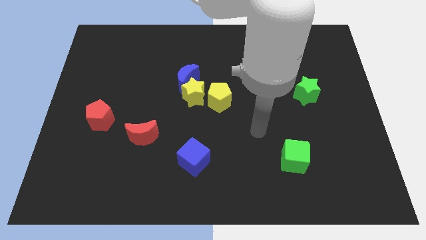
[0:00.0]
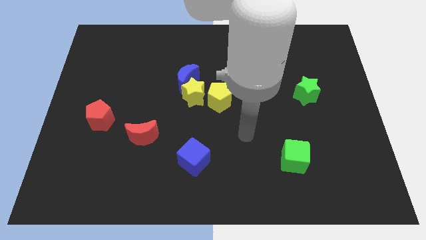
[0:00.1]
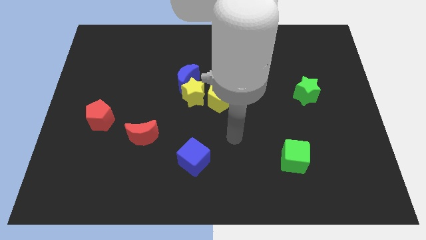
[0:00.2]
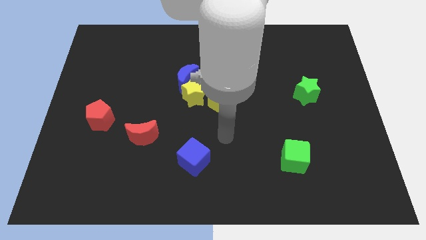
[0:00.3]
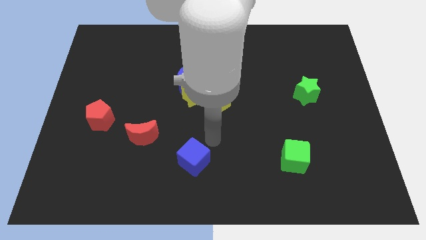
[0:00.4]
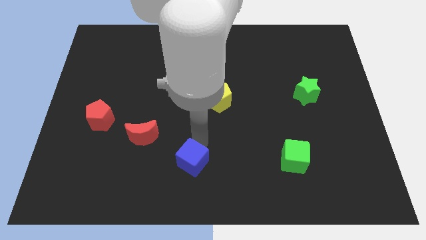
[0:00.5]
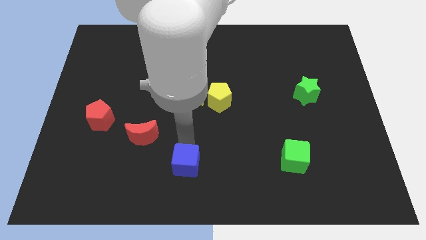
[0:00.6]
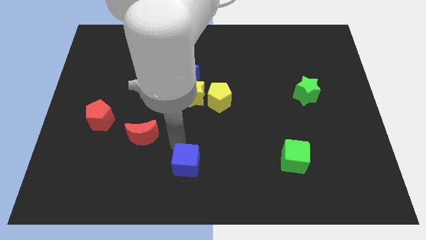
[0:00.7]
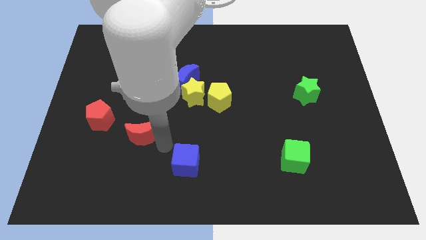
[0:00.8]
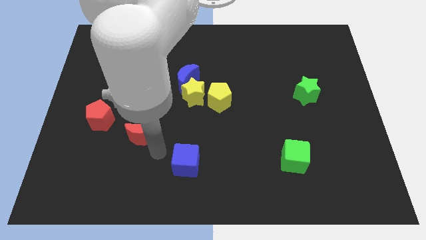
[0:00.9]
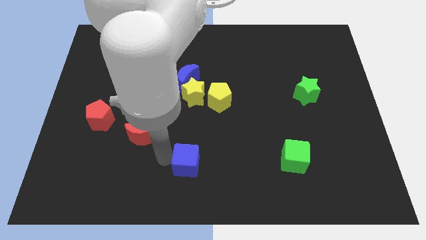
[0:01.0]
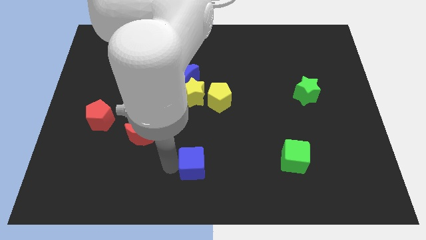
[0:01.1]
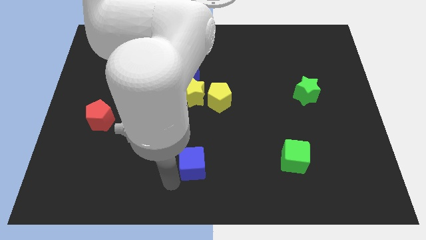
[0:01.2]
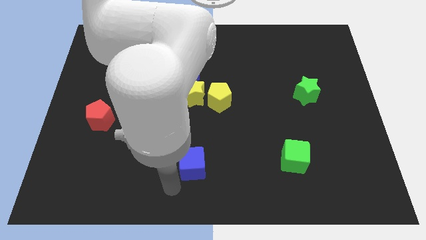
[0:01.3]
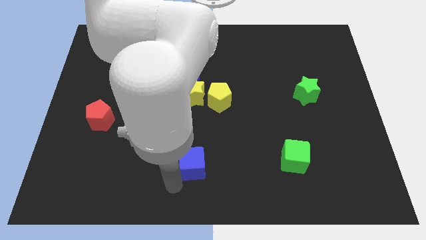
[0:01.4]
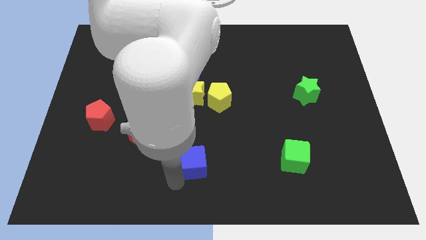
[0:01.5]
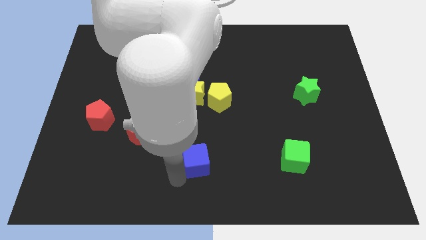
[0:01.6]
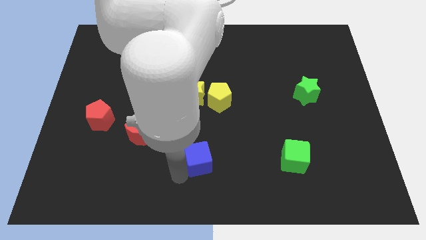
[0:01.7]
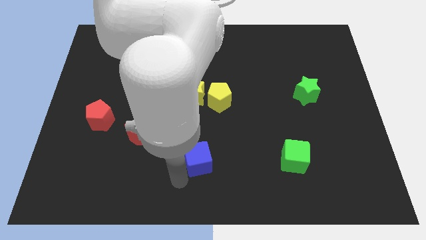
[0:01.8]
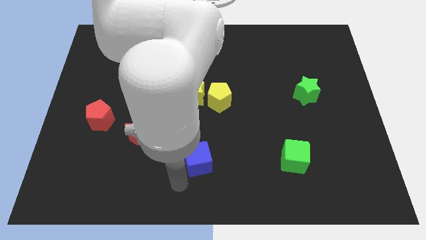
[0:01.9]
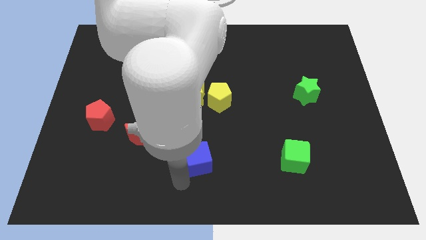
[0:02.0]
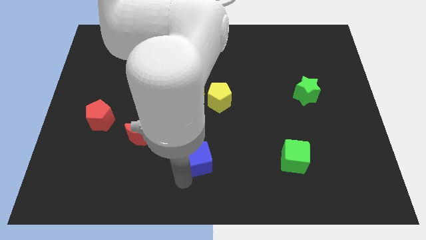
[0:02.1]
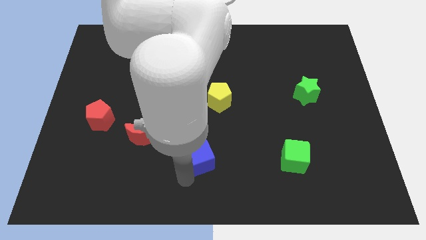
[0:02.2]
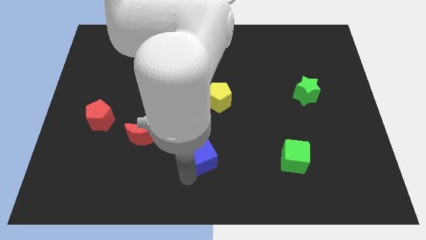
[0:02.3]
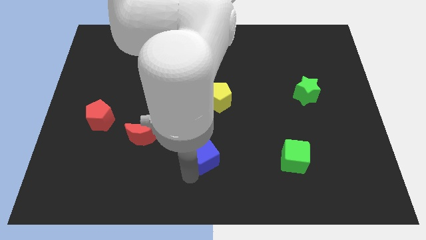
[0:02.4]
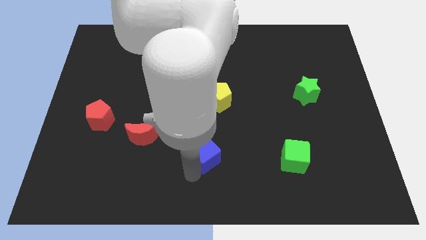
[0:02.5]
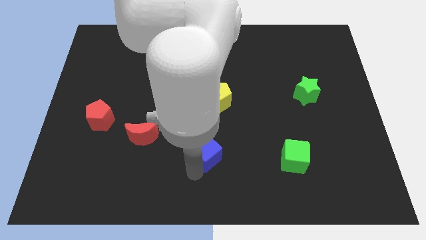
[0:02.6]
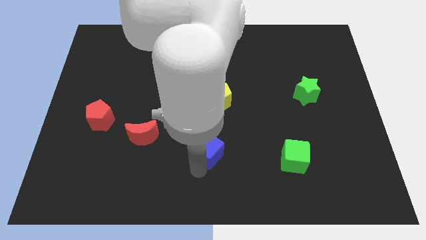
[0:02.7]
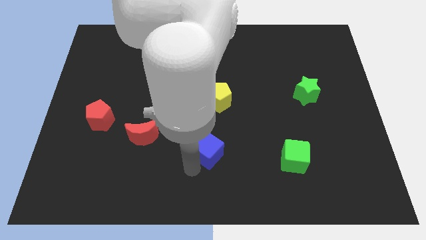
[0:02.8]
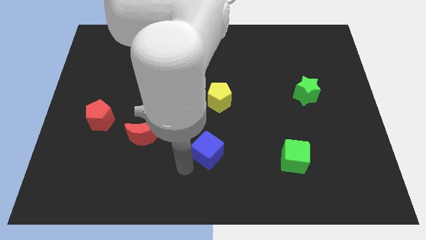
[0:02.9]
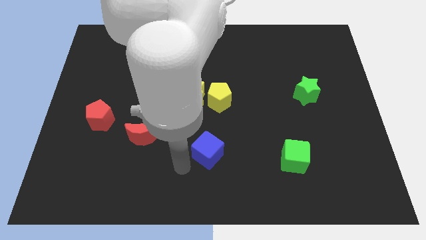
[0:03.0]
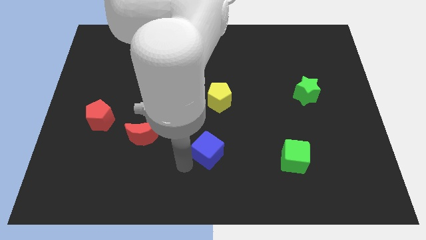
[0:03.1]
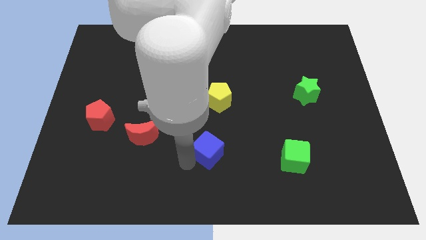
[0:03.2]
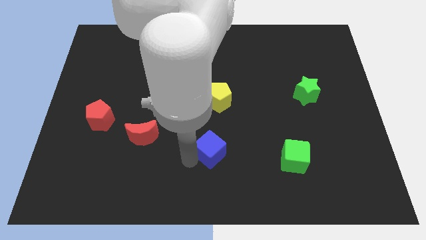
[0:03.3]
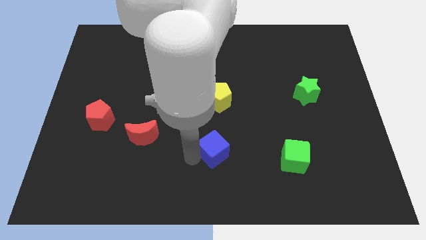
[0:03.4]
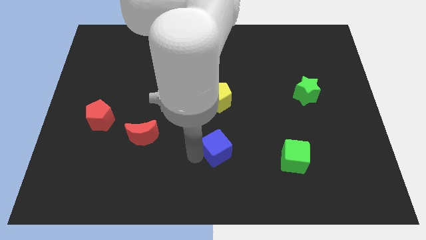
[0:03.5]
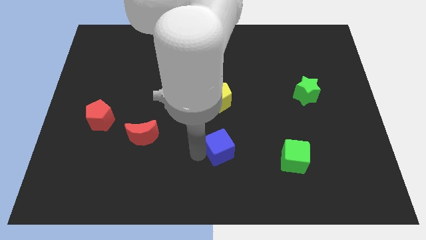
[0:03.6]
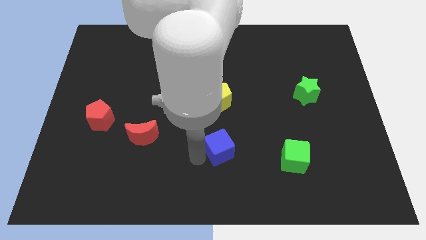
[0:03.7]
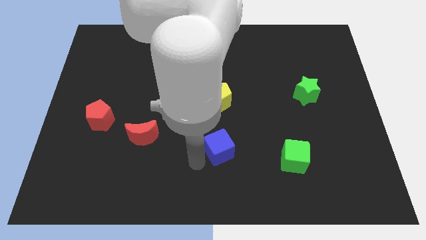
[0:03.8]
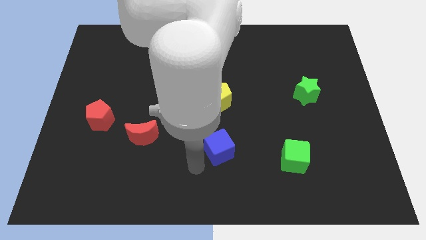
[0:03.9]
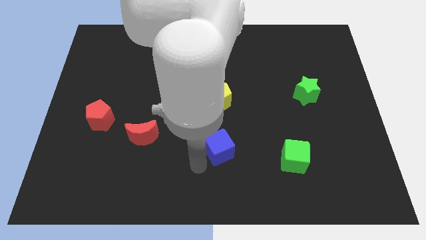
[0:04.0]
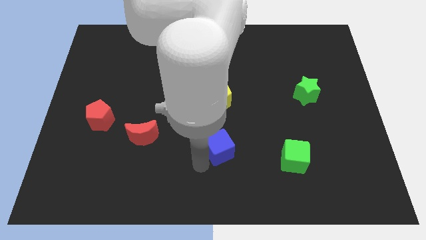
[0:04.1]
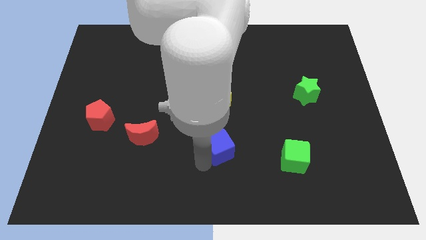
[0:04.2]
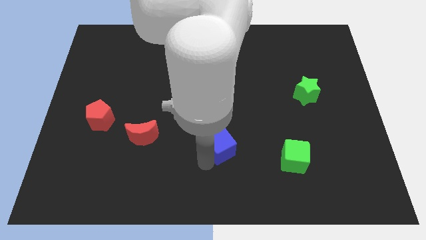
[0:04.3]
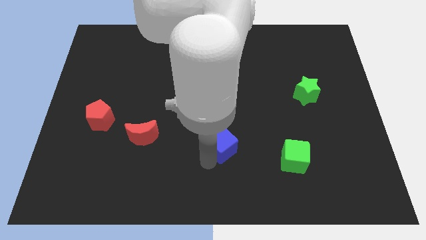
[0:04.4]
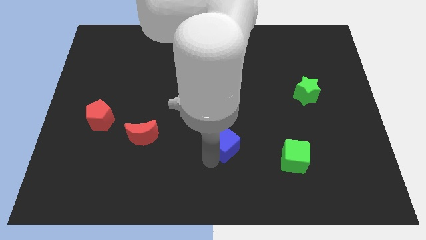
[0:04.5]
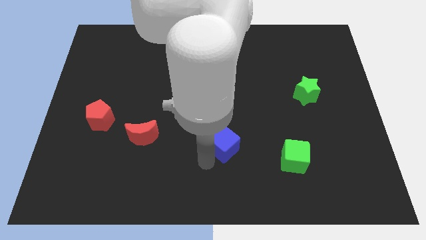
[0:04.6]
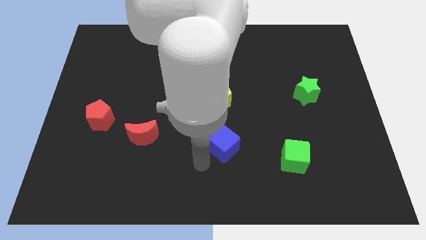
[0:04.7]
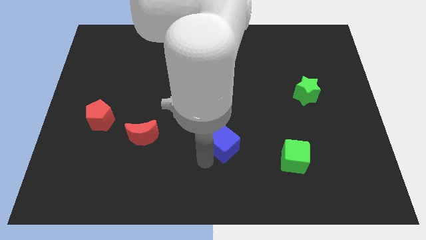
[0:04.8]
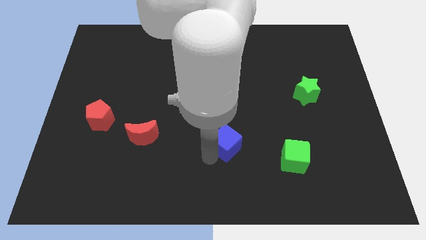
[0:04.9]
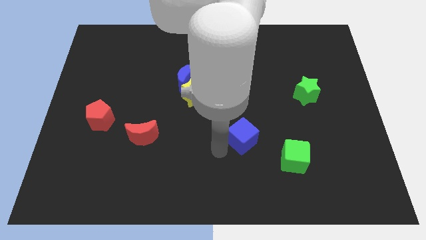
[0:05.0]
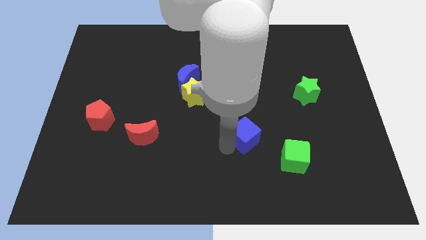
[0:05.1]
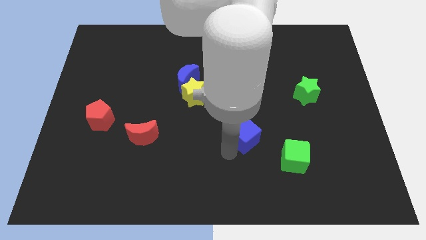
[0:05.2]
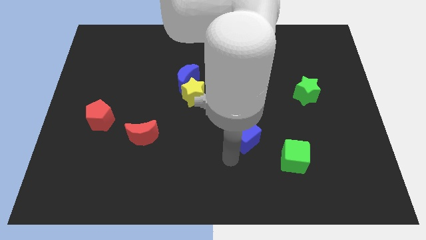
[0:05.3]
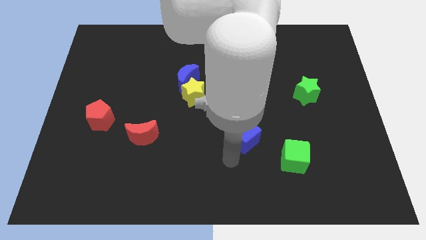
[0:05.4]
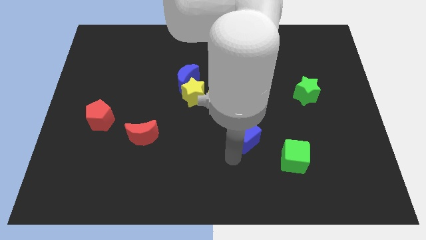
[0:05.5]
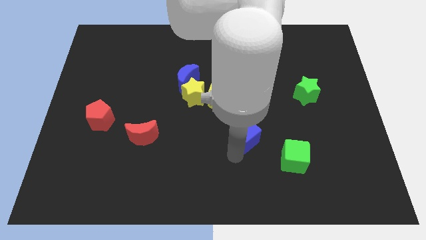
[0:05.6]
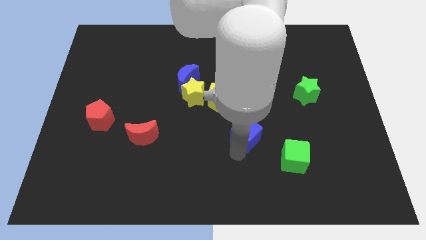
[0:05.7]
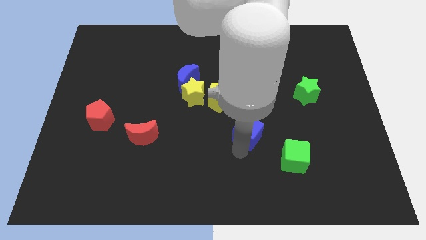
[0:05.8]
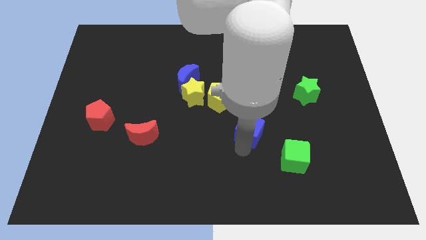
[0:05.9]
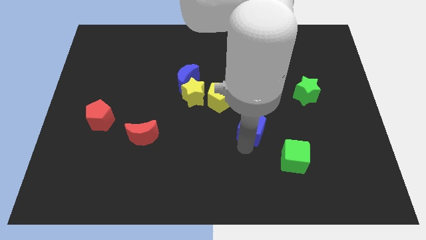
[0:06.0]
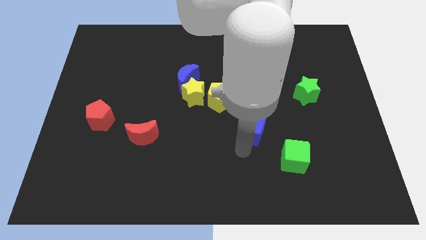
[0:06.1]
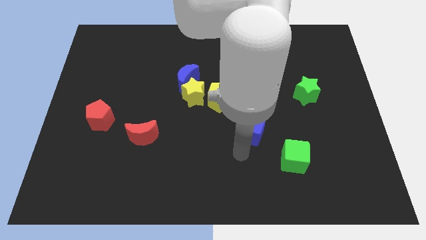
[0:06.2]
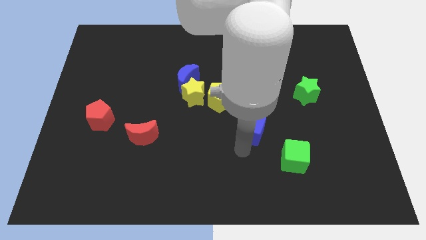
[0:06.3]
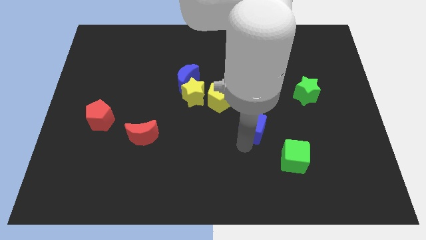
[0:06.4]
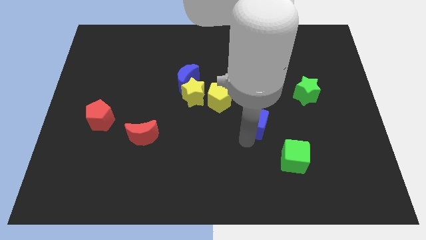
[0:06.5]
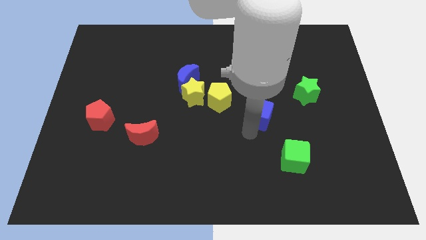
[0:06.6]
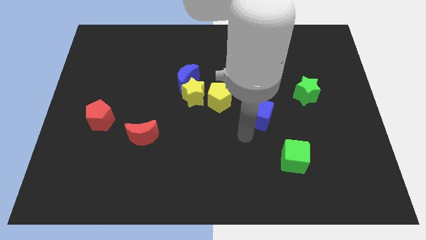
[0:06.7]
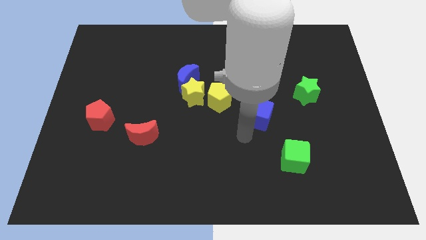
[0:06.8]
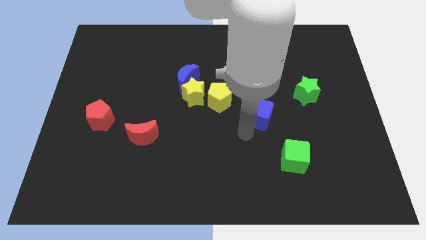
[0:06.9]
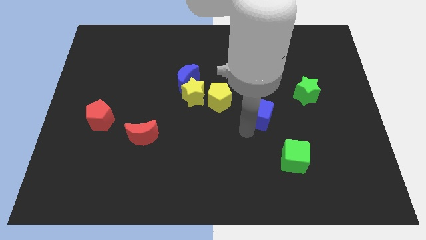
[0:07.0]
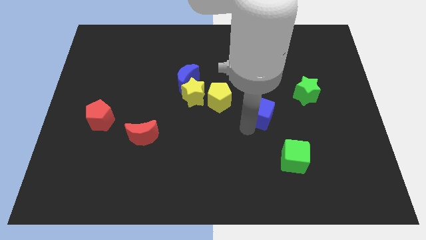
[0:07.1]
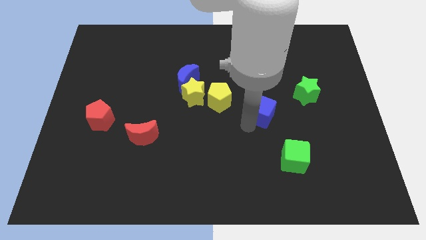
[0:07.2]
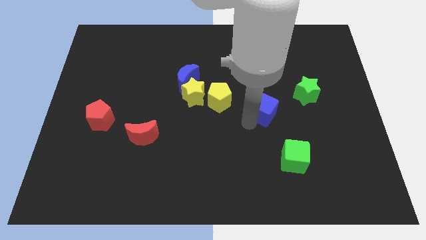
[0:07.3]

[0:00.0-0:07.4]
slide the blue cube diagonally up and right

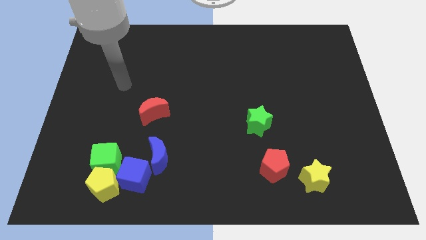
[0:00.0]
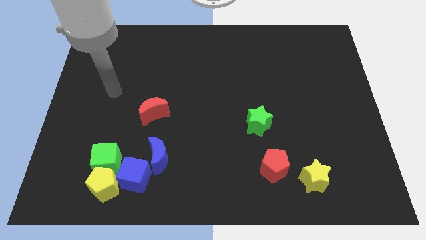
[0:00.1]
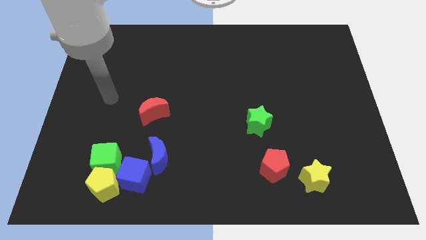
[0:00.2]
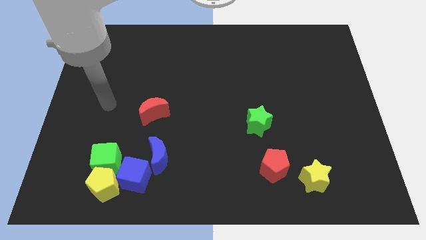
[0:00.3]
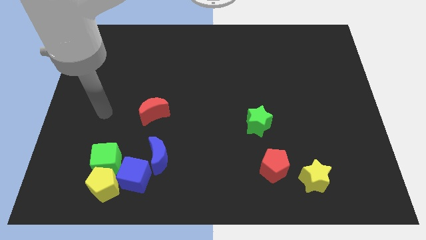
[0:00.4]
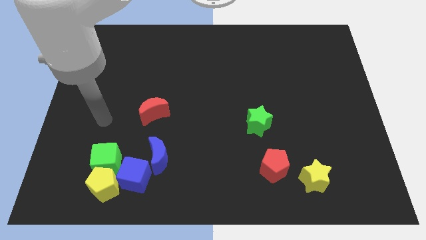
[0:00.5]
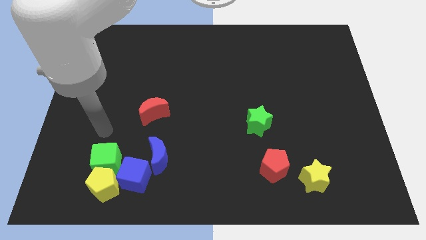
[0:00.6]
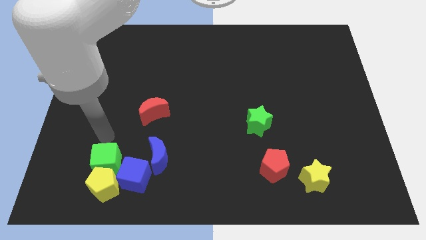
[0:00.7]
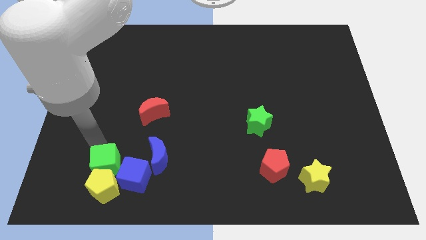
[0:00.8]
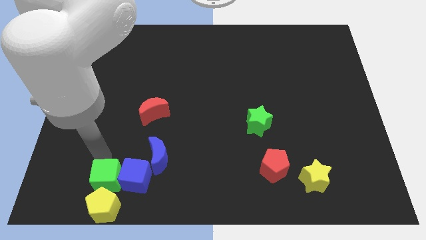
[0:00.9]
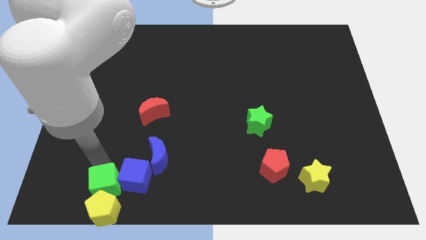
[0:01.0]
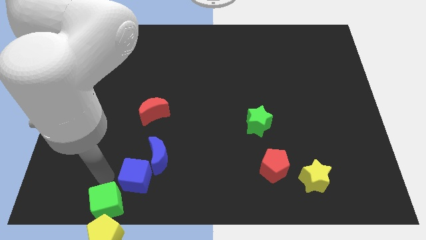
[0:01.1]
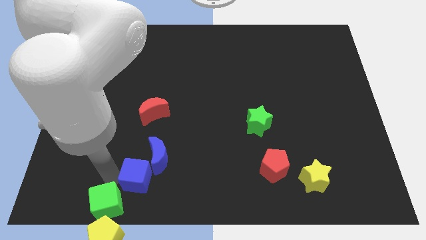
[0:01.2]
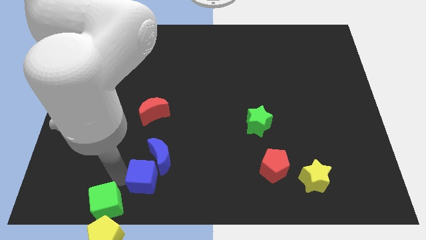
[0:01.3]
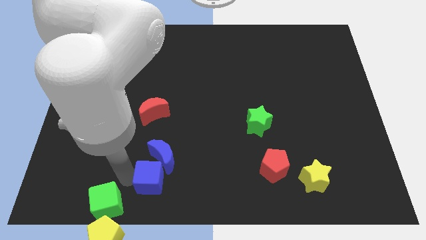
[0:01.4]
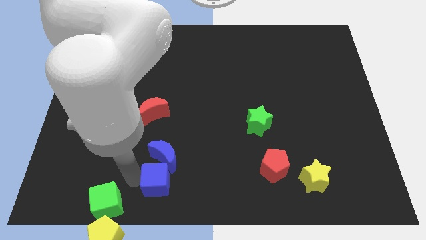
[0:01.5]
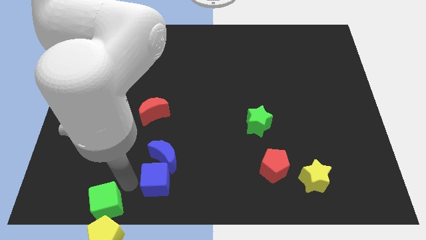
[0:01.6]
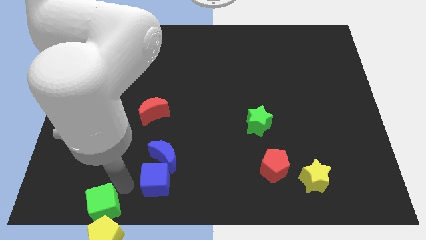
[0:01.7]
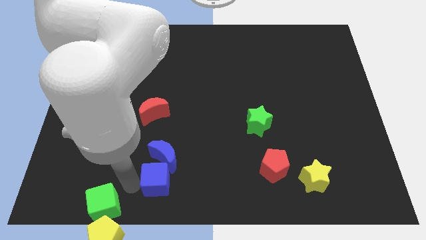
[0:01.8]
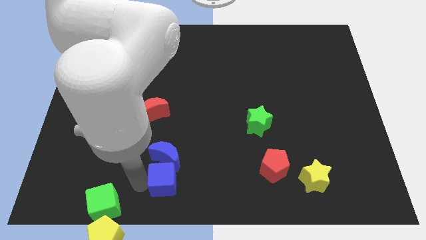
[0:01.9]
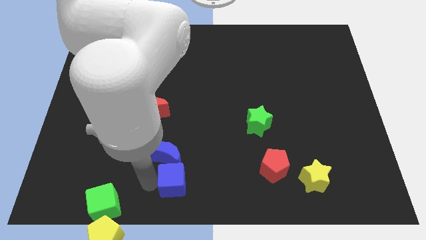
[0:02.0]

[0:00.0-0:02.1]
slide the blue cube a bit right
